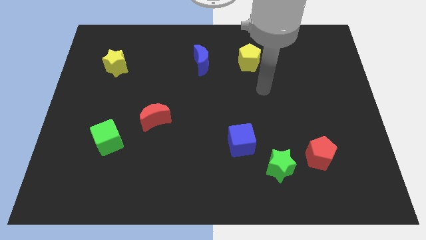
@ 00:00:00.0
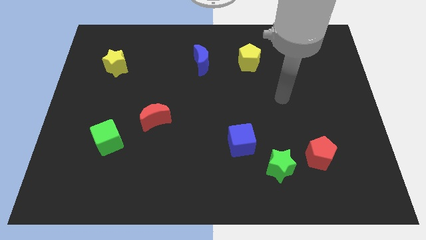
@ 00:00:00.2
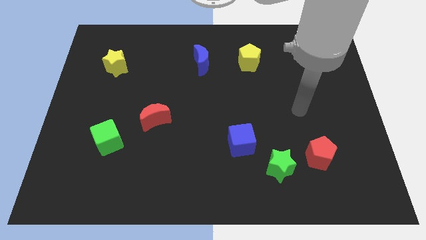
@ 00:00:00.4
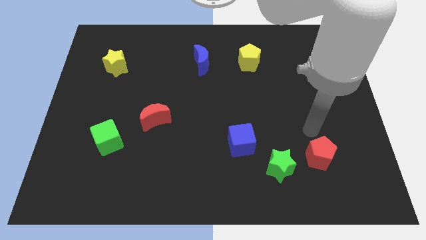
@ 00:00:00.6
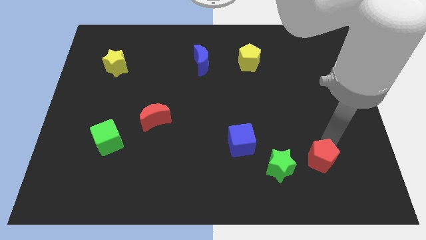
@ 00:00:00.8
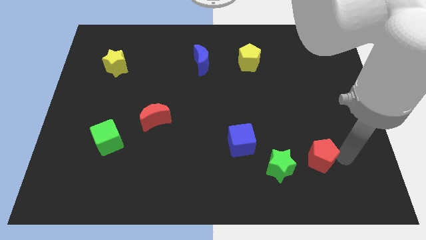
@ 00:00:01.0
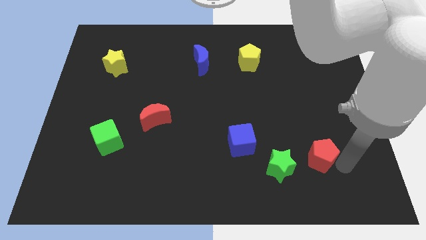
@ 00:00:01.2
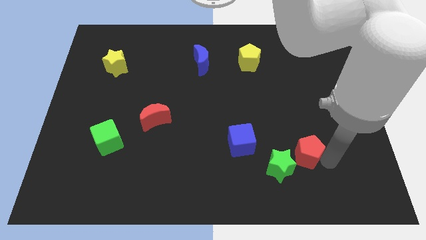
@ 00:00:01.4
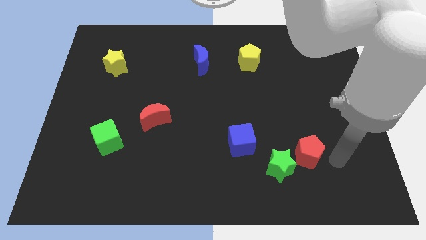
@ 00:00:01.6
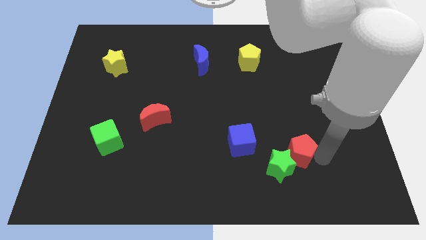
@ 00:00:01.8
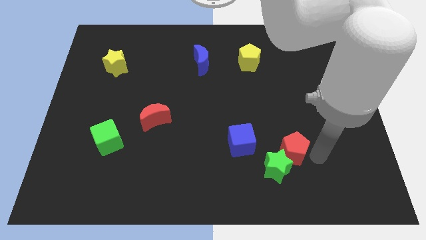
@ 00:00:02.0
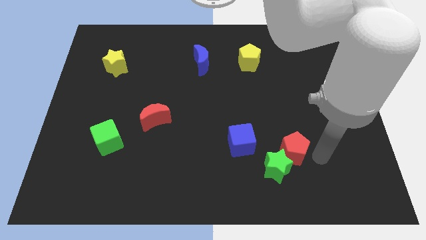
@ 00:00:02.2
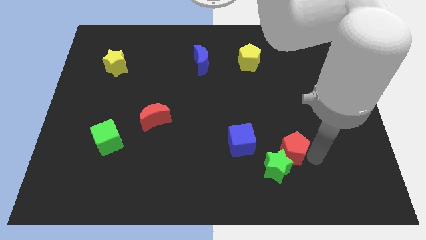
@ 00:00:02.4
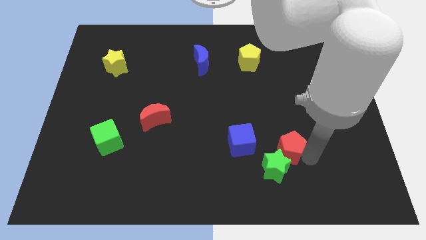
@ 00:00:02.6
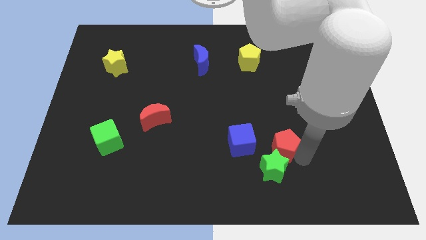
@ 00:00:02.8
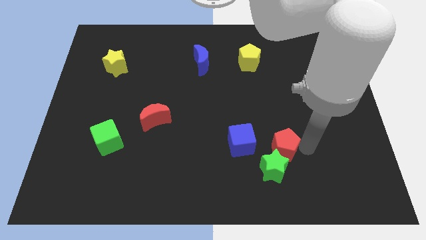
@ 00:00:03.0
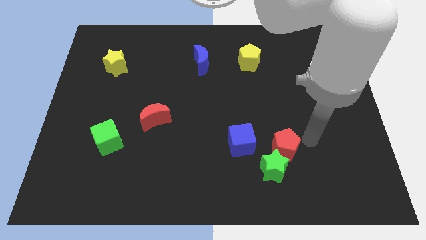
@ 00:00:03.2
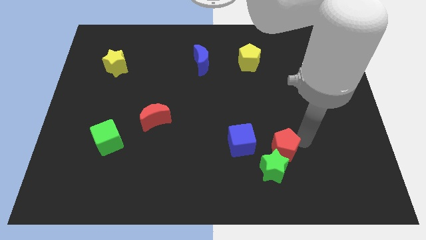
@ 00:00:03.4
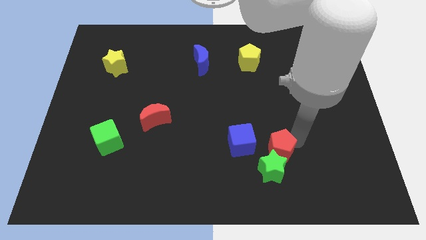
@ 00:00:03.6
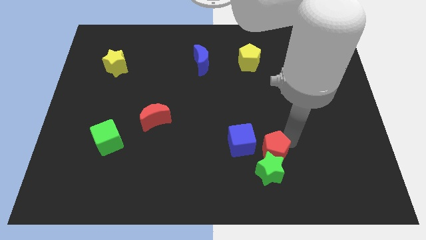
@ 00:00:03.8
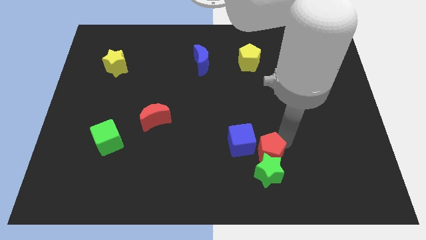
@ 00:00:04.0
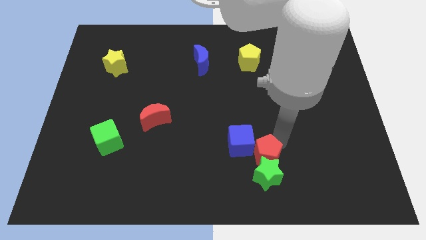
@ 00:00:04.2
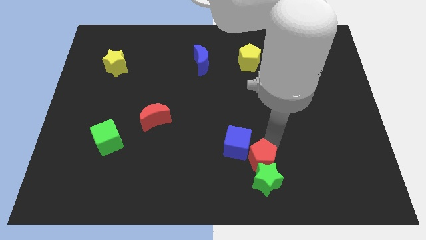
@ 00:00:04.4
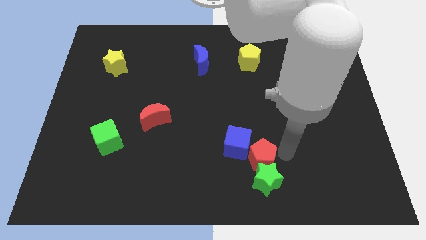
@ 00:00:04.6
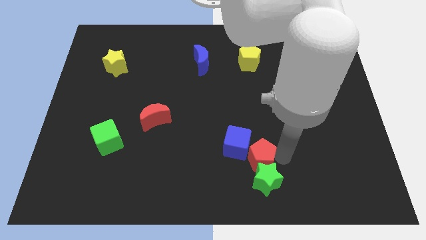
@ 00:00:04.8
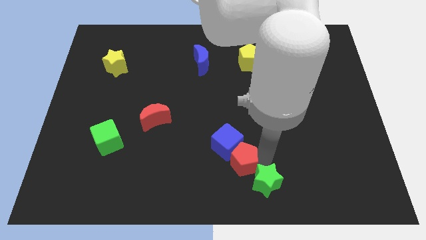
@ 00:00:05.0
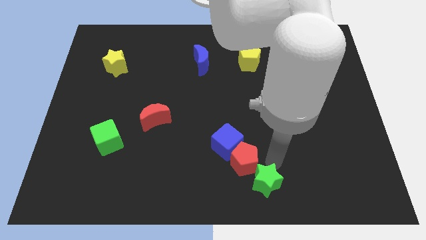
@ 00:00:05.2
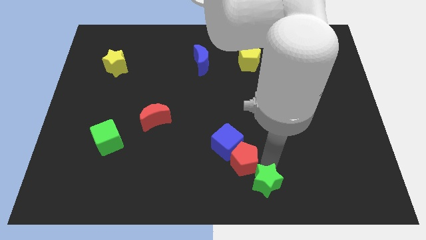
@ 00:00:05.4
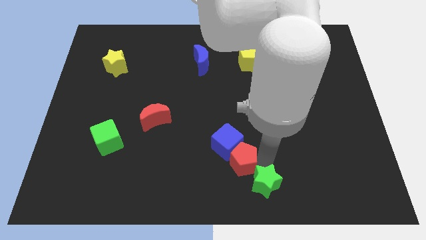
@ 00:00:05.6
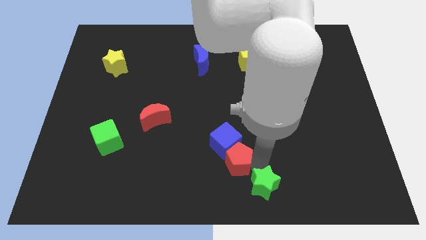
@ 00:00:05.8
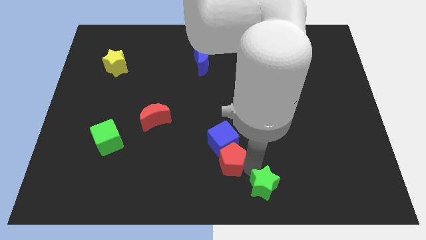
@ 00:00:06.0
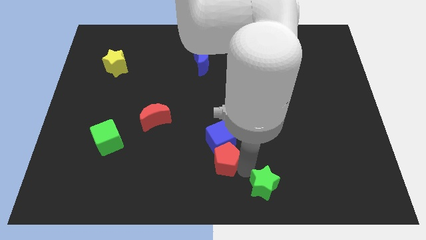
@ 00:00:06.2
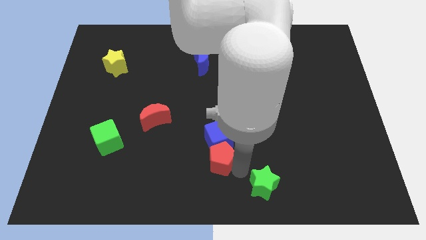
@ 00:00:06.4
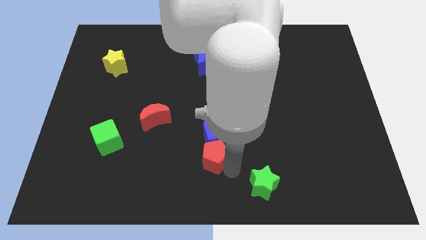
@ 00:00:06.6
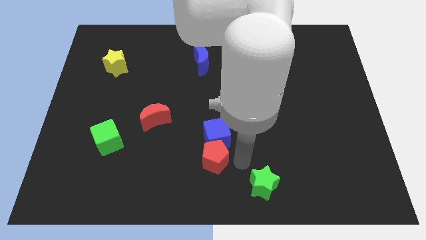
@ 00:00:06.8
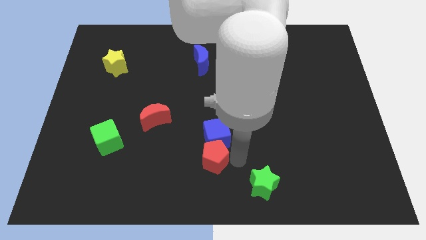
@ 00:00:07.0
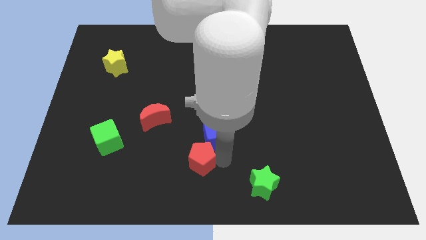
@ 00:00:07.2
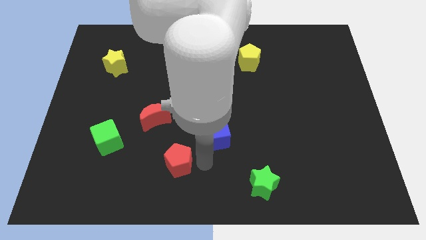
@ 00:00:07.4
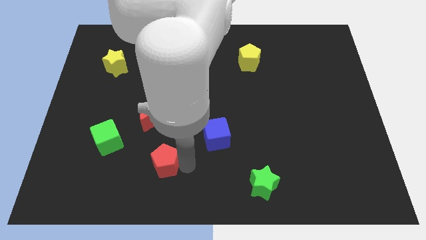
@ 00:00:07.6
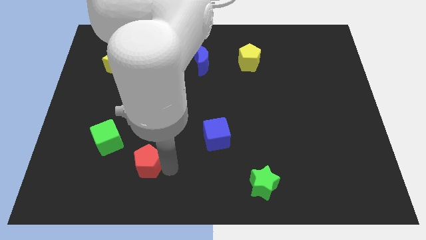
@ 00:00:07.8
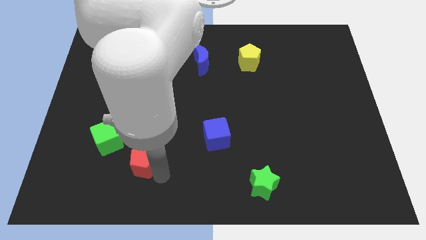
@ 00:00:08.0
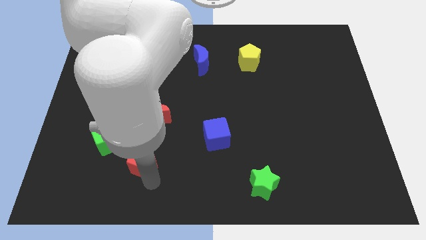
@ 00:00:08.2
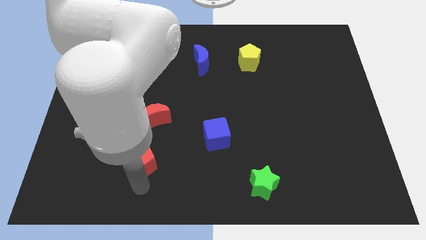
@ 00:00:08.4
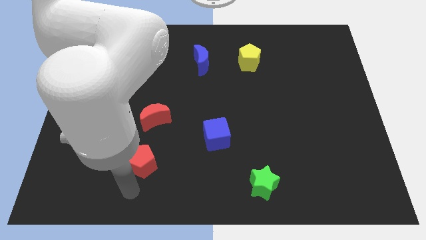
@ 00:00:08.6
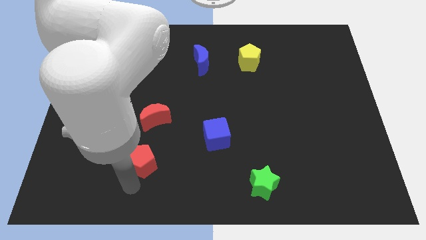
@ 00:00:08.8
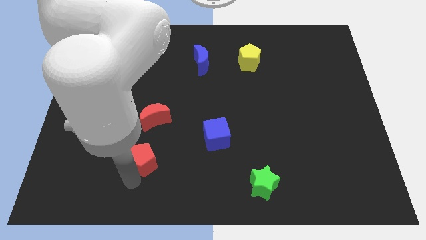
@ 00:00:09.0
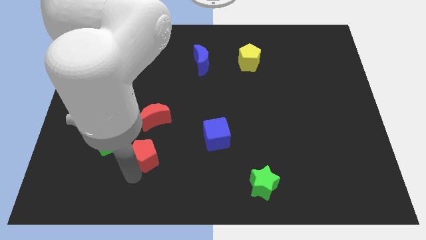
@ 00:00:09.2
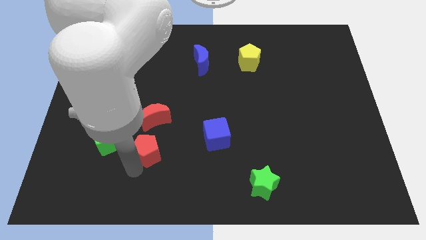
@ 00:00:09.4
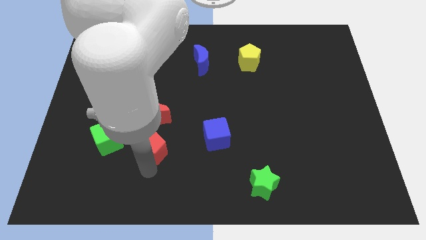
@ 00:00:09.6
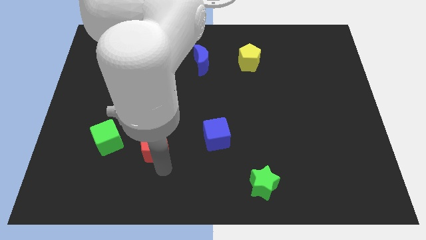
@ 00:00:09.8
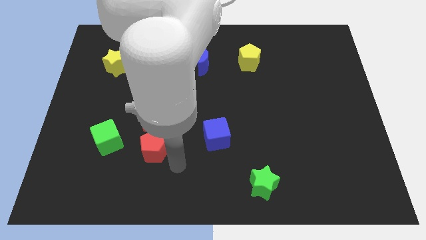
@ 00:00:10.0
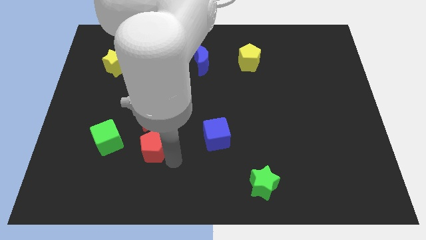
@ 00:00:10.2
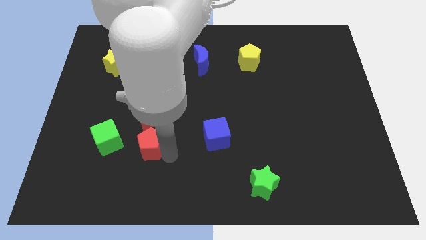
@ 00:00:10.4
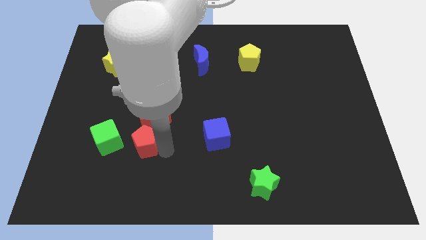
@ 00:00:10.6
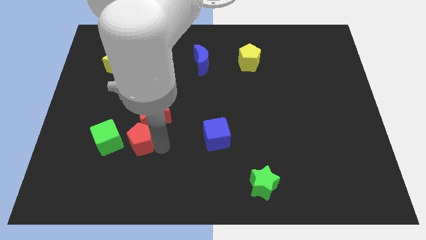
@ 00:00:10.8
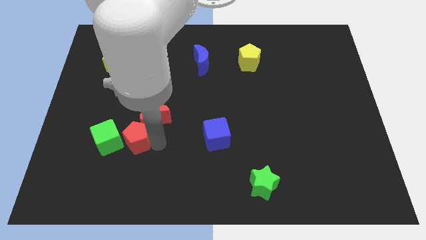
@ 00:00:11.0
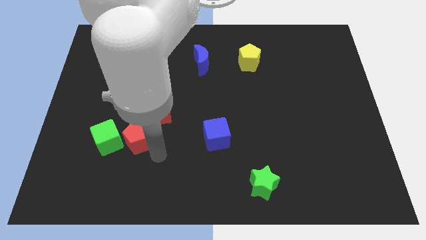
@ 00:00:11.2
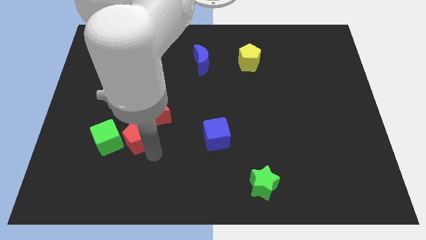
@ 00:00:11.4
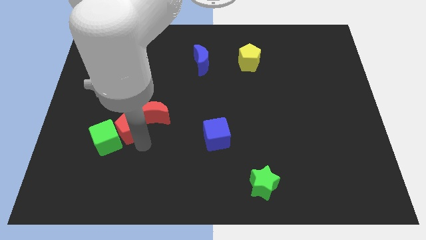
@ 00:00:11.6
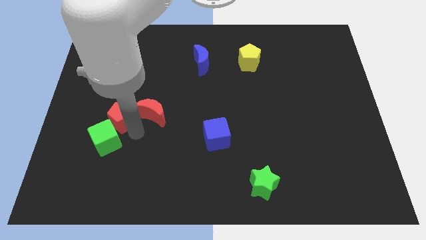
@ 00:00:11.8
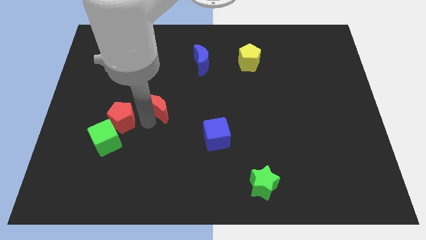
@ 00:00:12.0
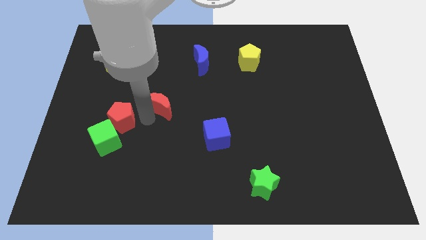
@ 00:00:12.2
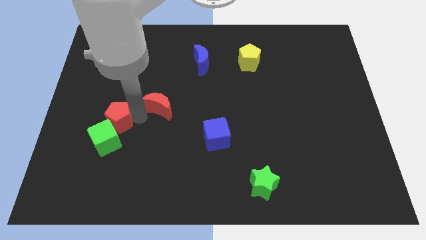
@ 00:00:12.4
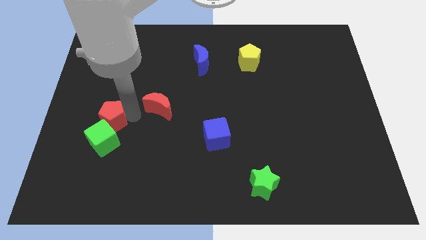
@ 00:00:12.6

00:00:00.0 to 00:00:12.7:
put the red pentagon to the top left side of the green cube
